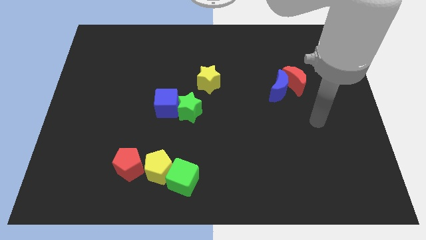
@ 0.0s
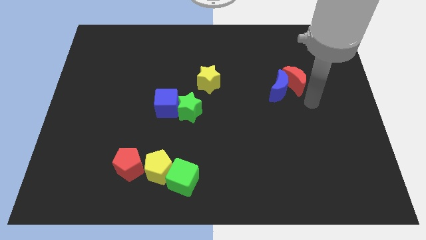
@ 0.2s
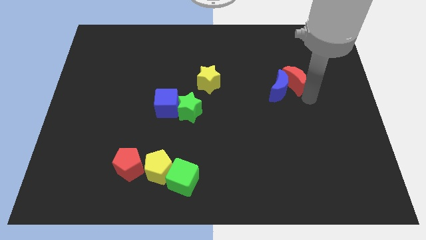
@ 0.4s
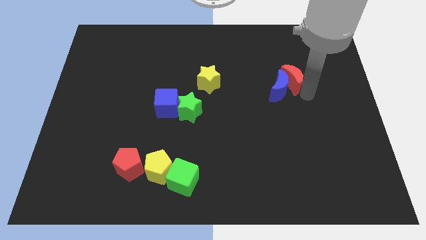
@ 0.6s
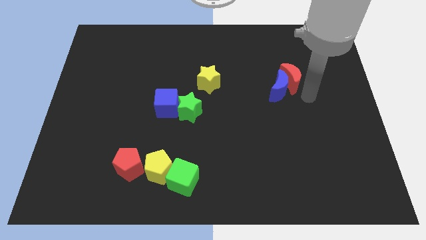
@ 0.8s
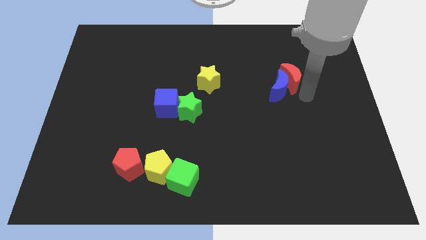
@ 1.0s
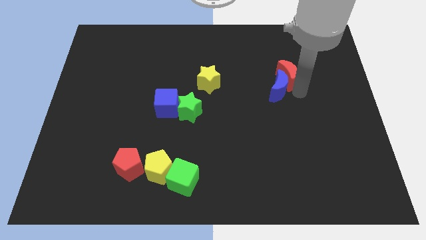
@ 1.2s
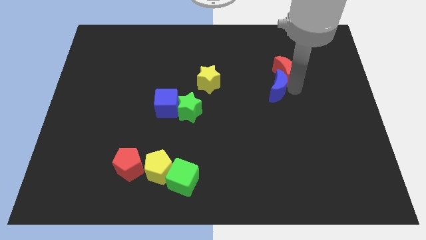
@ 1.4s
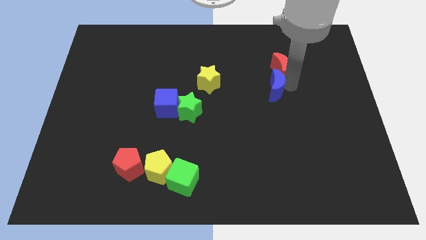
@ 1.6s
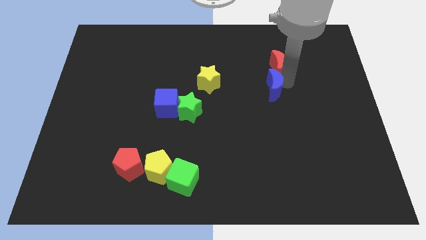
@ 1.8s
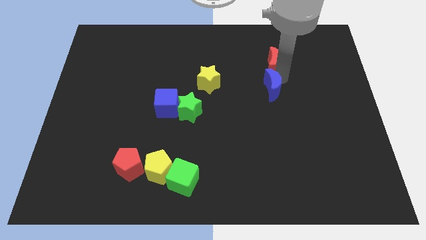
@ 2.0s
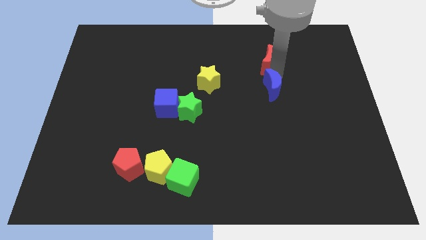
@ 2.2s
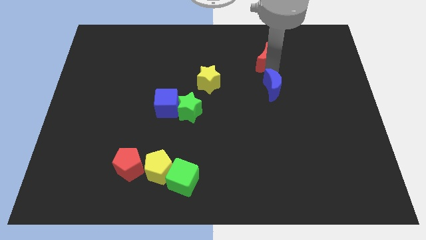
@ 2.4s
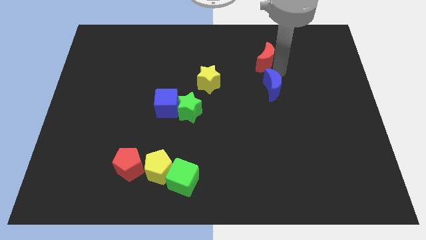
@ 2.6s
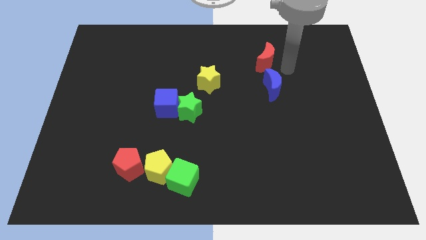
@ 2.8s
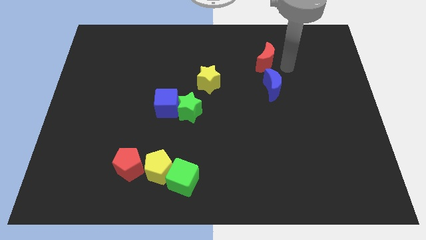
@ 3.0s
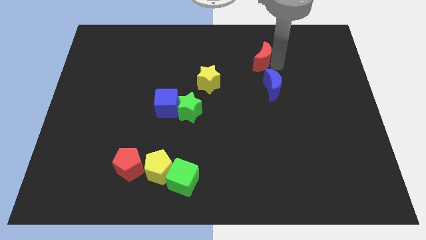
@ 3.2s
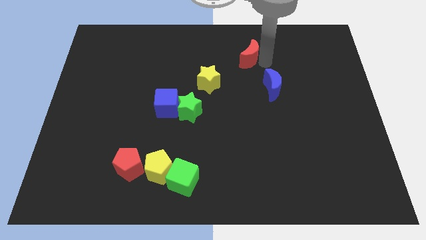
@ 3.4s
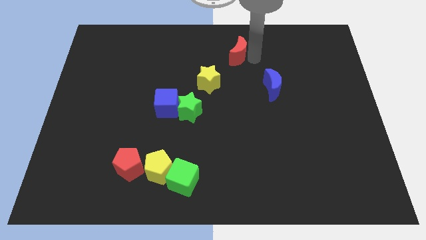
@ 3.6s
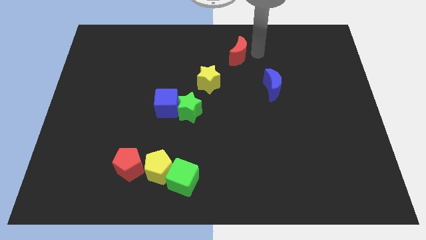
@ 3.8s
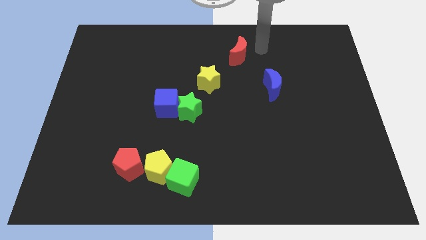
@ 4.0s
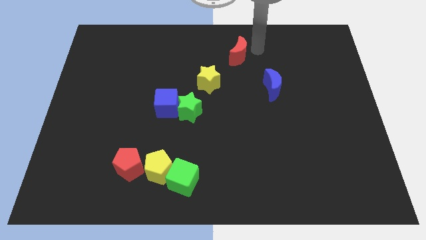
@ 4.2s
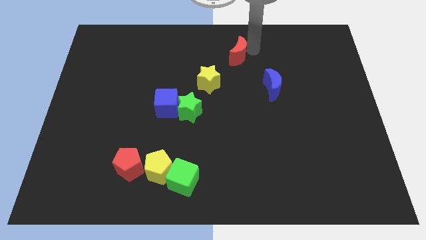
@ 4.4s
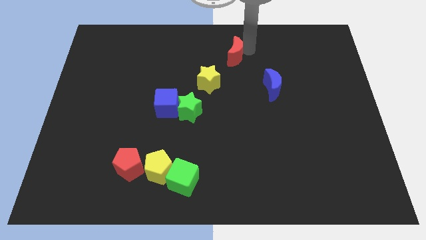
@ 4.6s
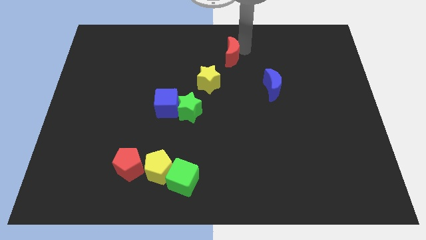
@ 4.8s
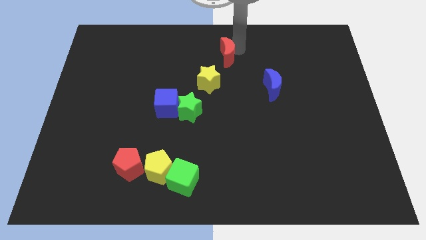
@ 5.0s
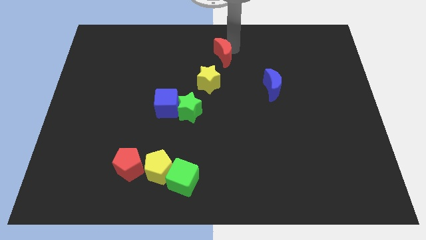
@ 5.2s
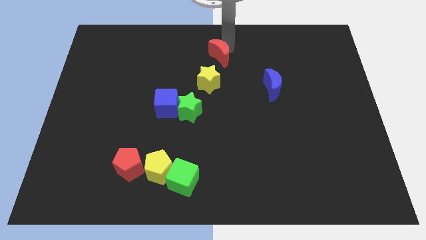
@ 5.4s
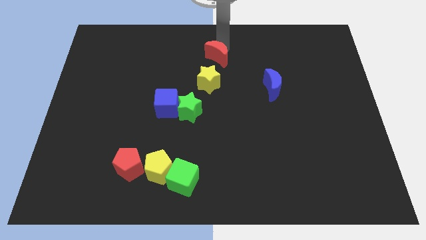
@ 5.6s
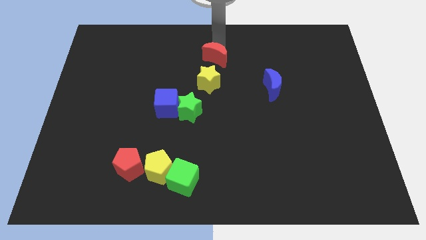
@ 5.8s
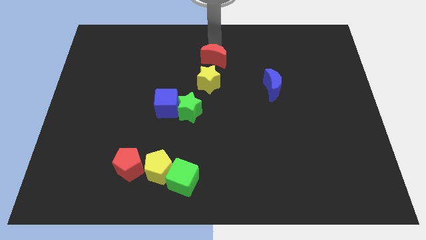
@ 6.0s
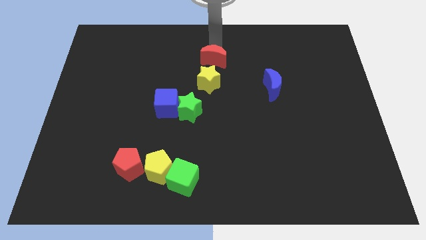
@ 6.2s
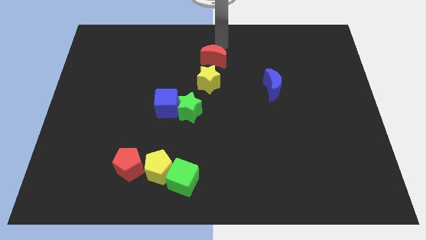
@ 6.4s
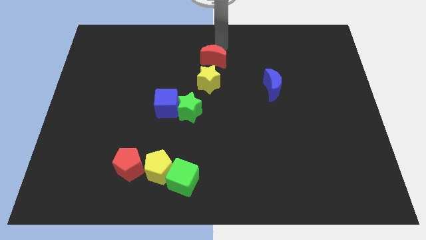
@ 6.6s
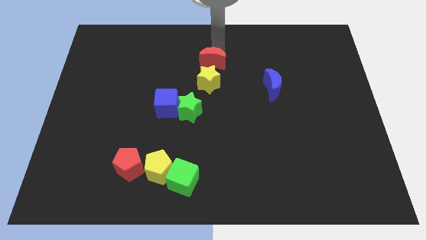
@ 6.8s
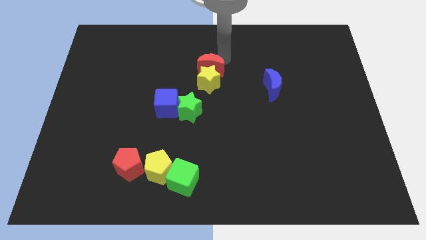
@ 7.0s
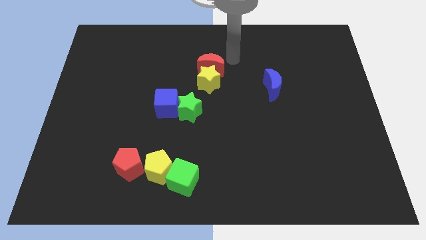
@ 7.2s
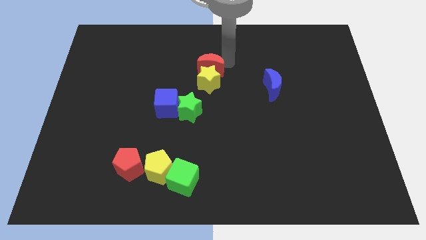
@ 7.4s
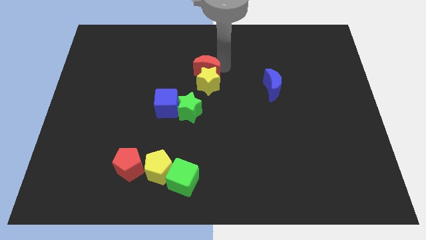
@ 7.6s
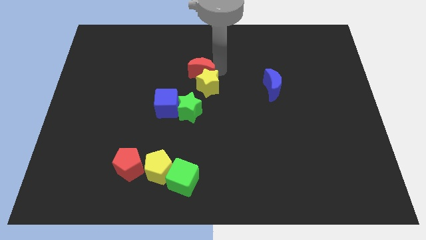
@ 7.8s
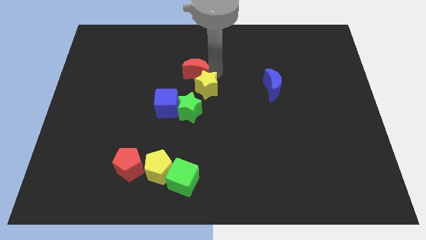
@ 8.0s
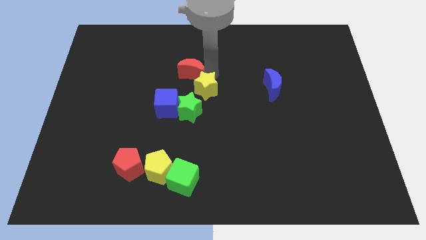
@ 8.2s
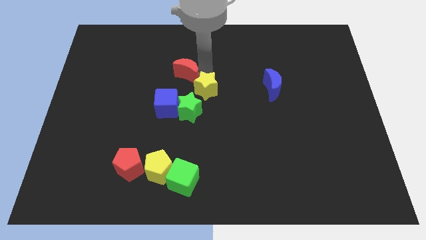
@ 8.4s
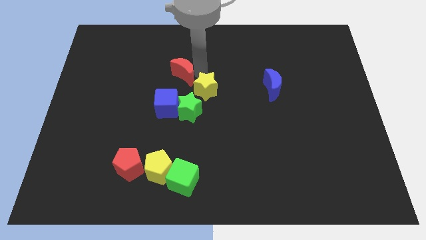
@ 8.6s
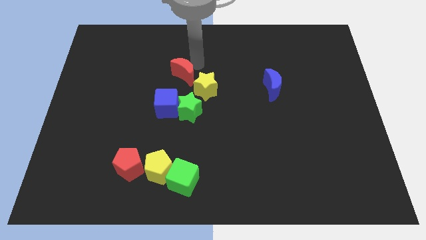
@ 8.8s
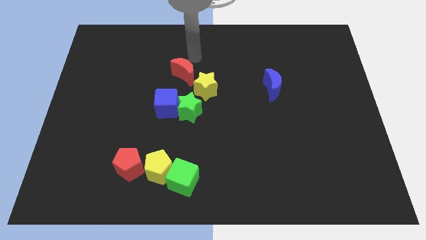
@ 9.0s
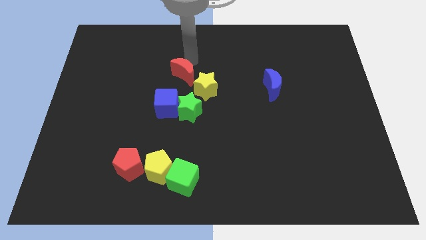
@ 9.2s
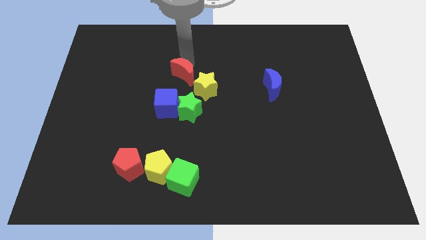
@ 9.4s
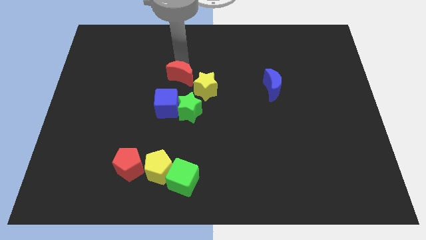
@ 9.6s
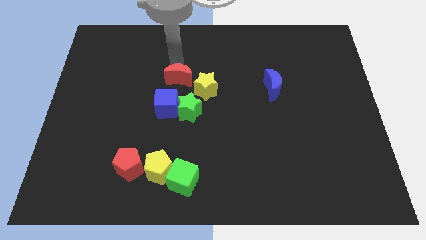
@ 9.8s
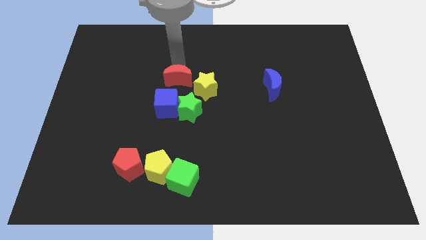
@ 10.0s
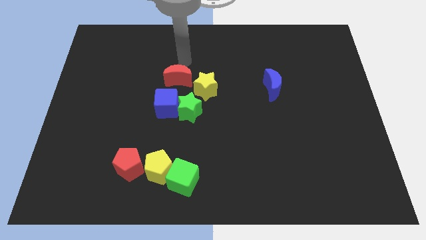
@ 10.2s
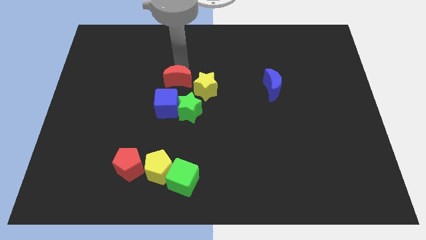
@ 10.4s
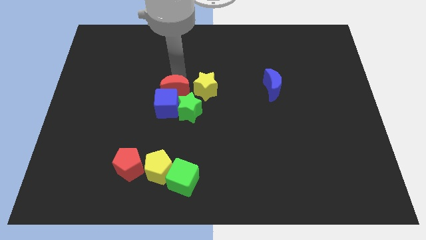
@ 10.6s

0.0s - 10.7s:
move the red moon towards the blue cube

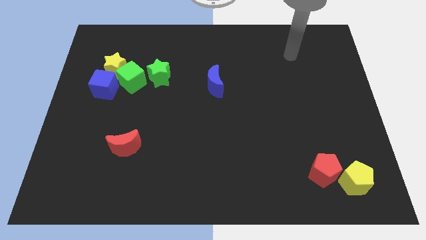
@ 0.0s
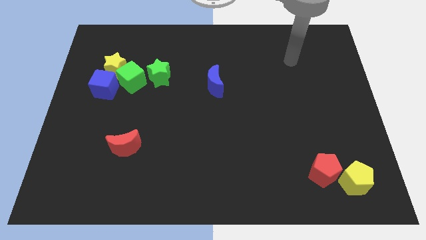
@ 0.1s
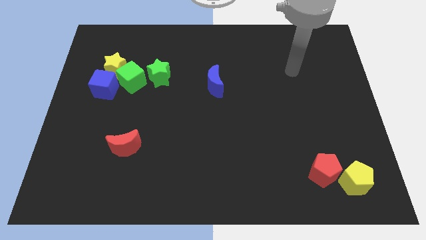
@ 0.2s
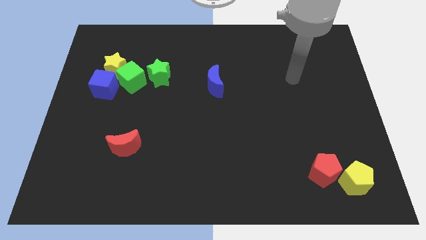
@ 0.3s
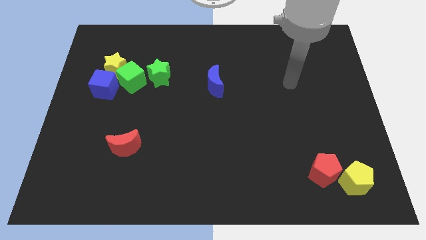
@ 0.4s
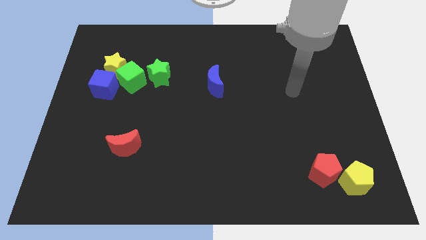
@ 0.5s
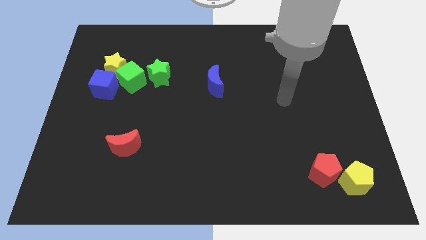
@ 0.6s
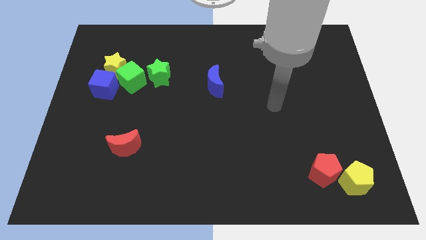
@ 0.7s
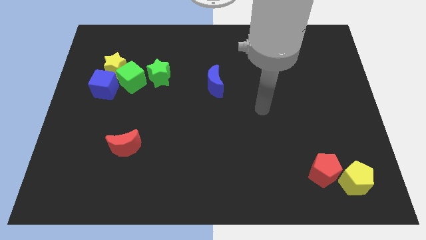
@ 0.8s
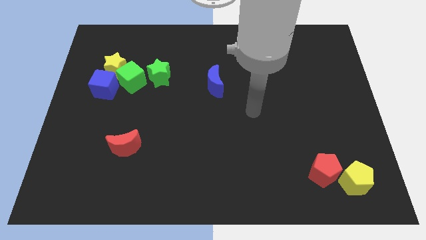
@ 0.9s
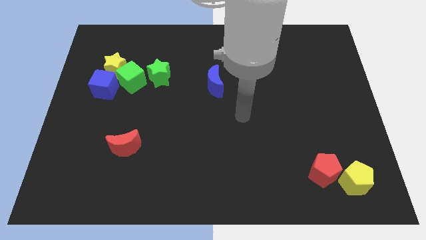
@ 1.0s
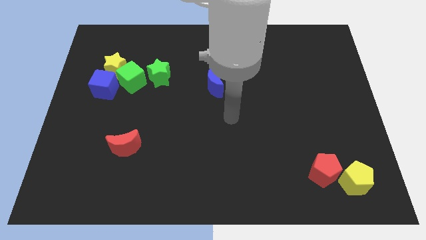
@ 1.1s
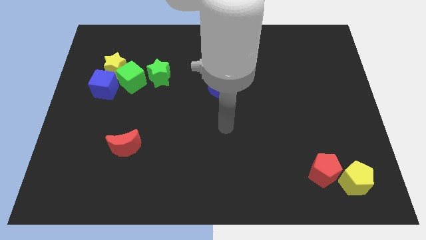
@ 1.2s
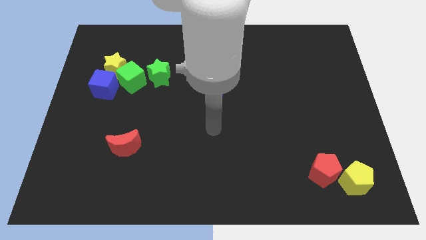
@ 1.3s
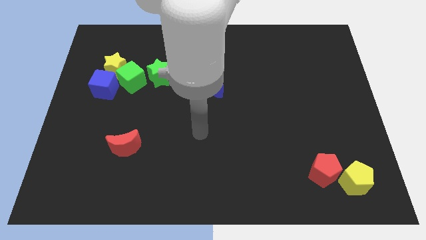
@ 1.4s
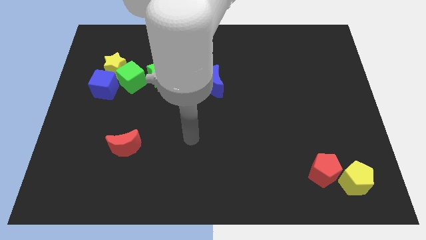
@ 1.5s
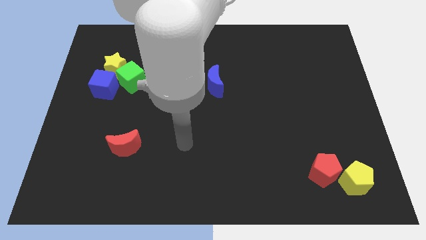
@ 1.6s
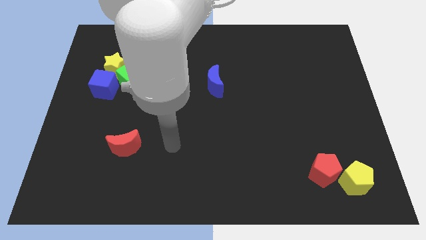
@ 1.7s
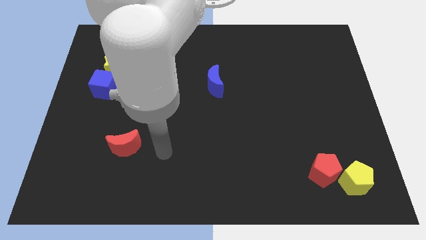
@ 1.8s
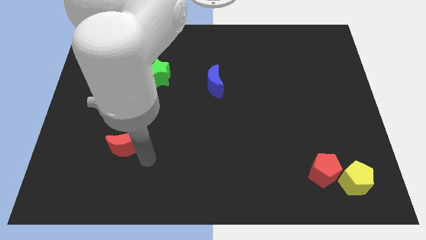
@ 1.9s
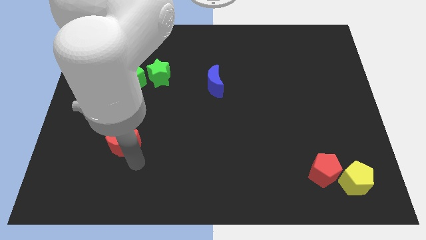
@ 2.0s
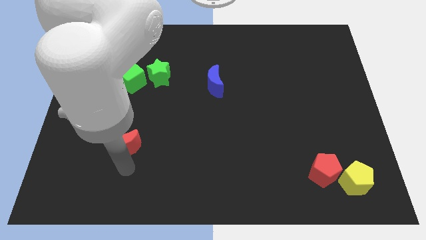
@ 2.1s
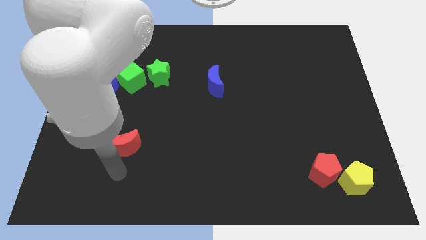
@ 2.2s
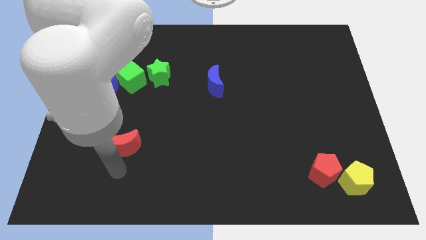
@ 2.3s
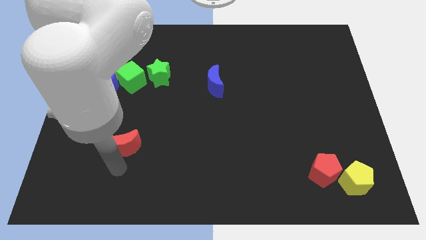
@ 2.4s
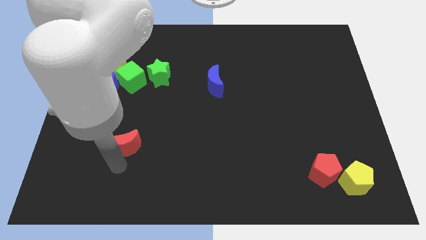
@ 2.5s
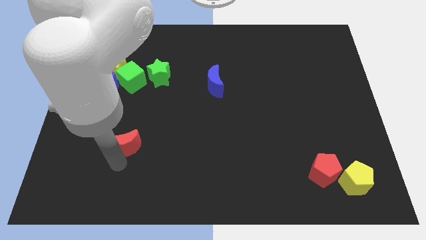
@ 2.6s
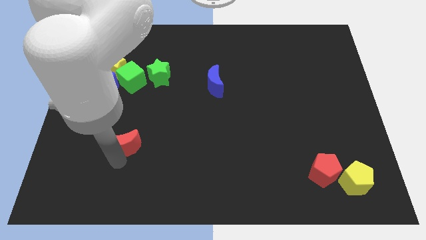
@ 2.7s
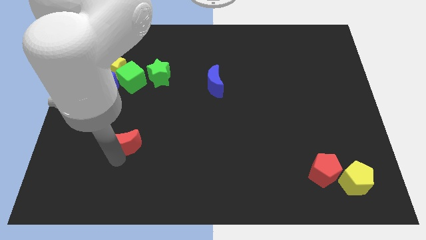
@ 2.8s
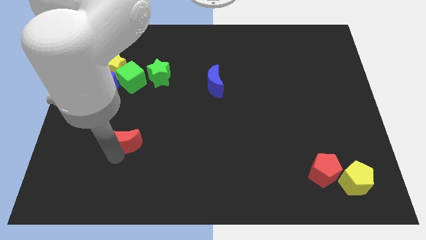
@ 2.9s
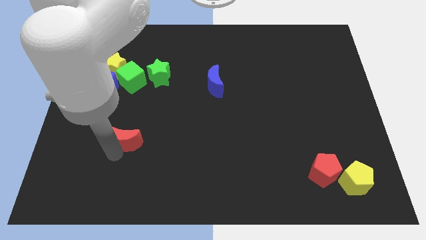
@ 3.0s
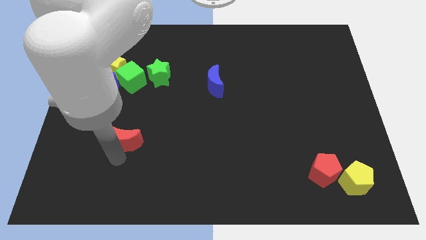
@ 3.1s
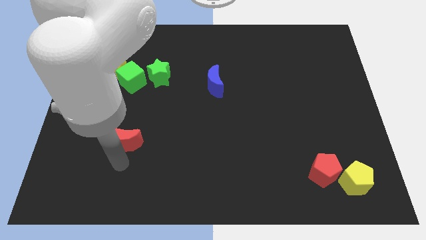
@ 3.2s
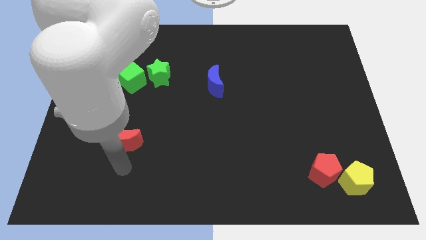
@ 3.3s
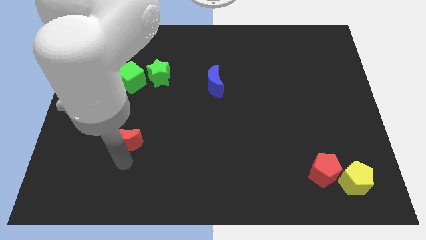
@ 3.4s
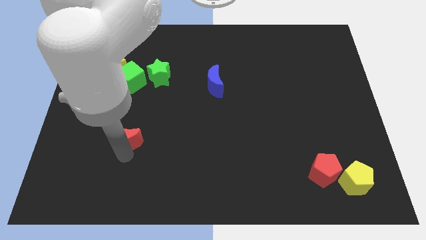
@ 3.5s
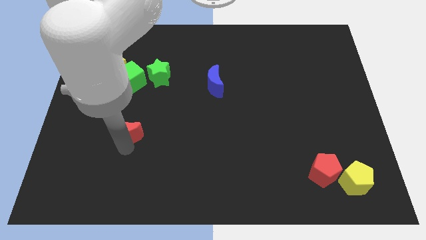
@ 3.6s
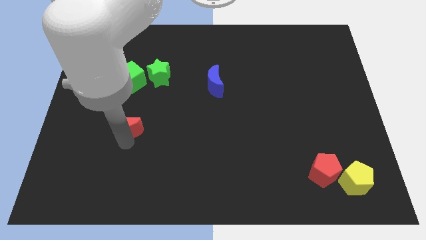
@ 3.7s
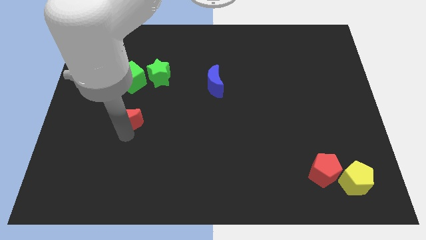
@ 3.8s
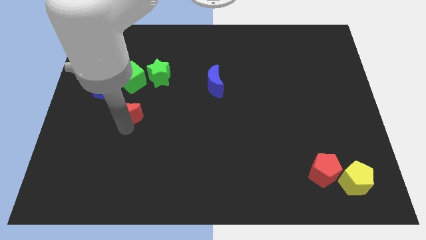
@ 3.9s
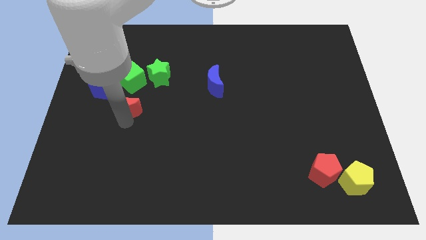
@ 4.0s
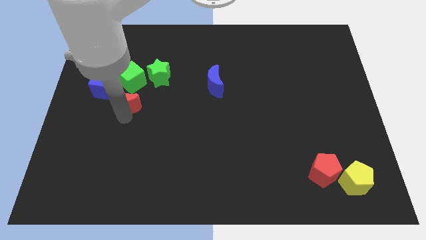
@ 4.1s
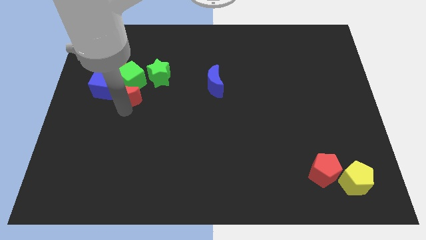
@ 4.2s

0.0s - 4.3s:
push the red moon close to the green cube
